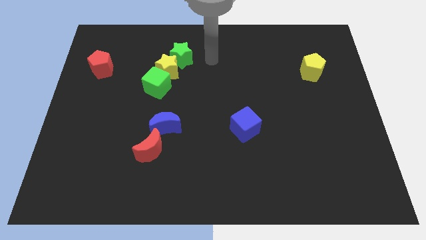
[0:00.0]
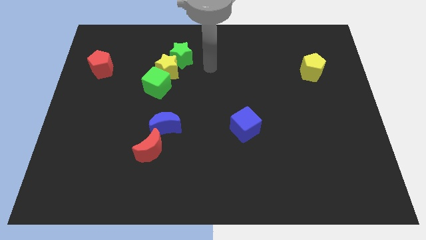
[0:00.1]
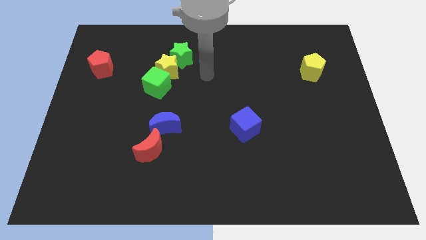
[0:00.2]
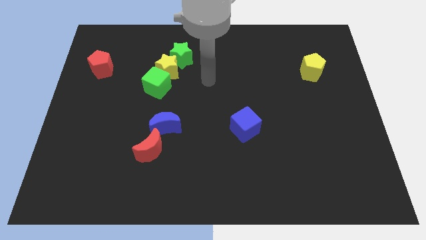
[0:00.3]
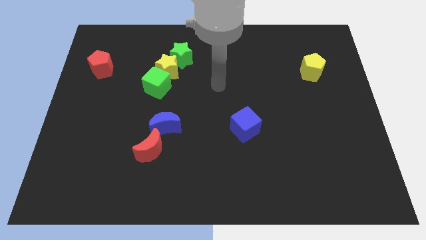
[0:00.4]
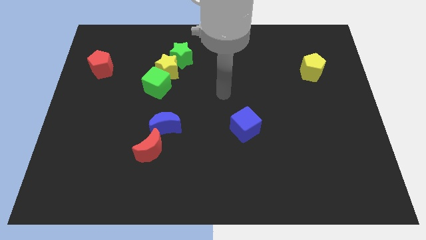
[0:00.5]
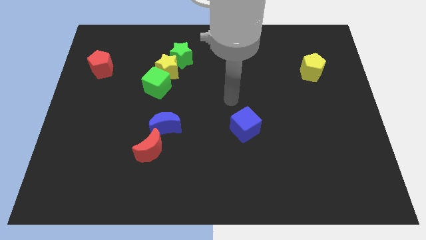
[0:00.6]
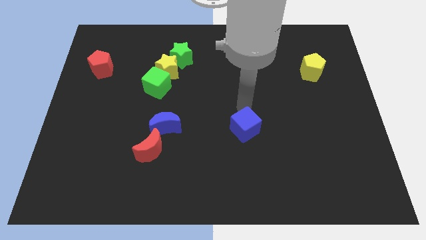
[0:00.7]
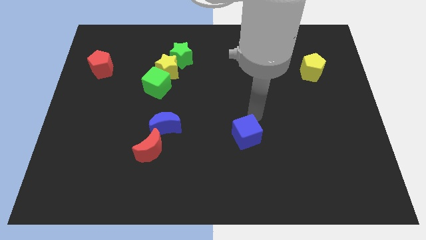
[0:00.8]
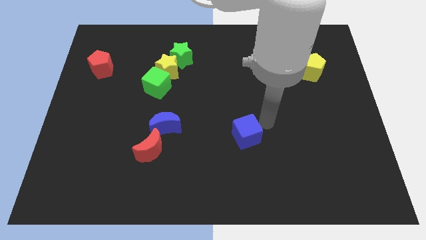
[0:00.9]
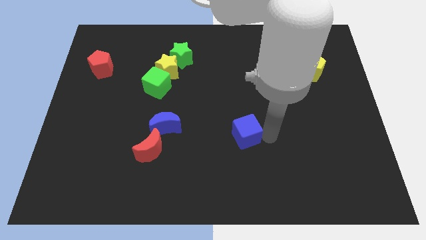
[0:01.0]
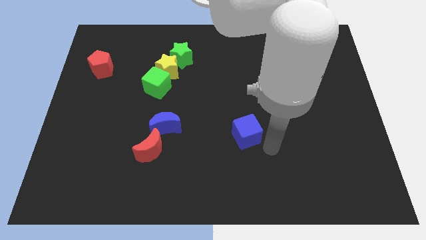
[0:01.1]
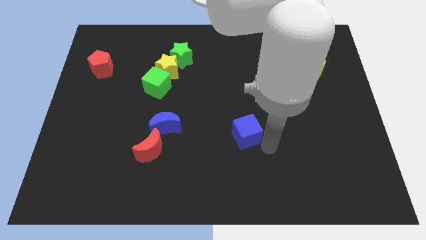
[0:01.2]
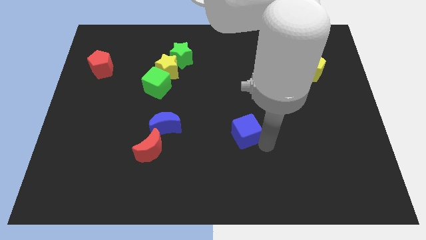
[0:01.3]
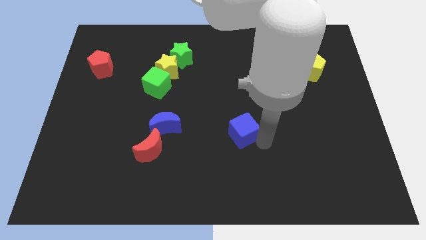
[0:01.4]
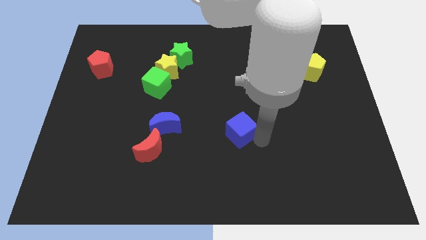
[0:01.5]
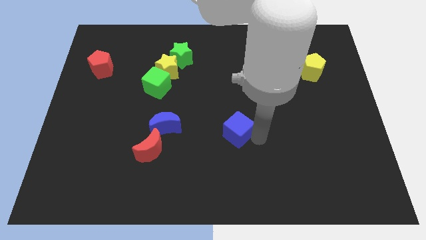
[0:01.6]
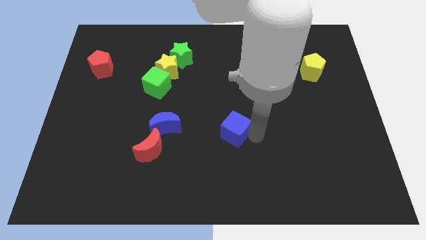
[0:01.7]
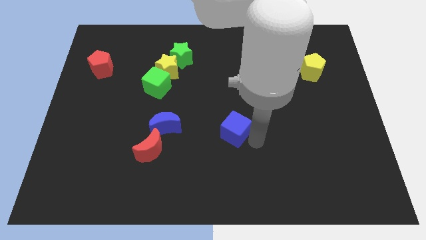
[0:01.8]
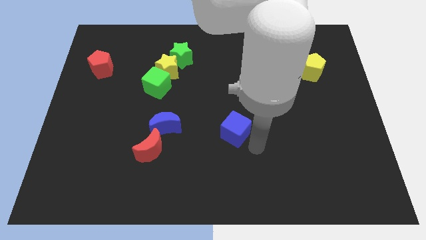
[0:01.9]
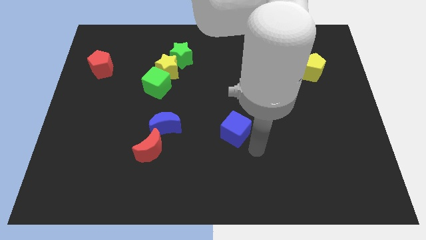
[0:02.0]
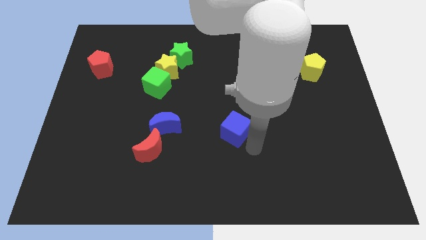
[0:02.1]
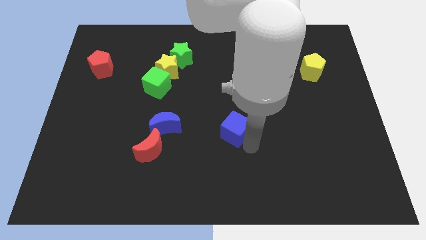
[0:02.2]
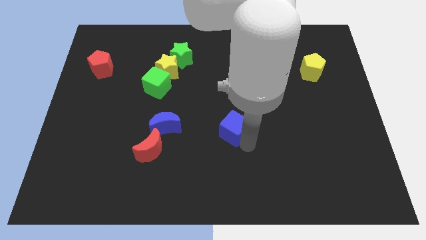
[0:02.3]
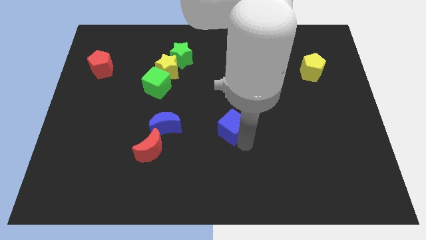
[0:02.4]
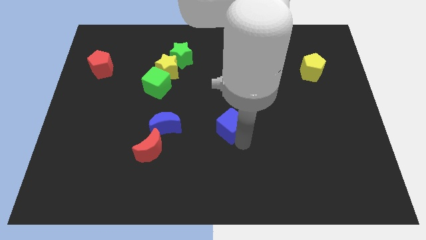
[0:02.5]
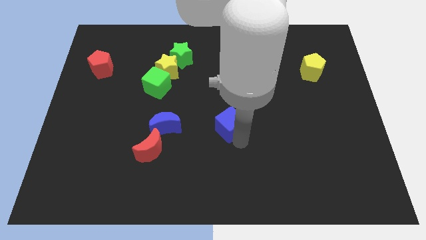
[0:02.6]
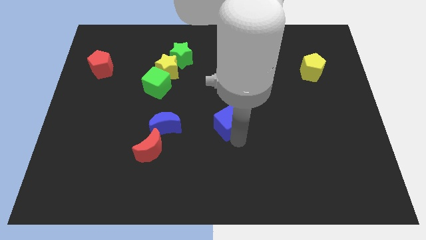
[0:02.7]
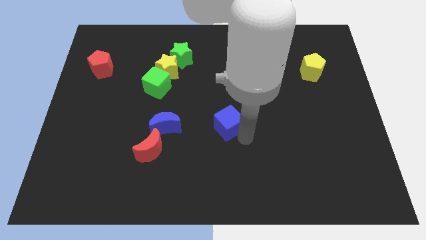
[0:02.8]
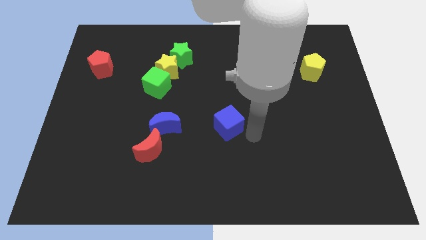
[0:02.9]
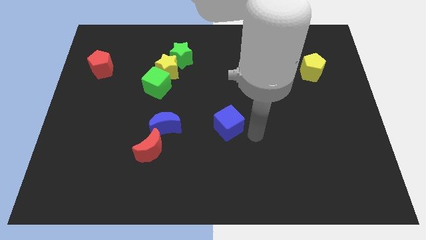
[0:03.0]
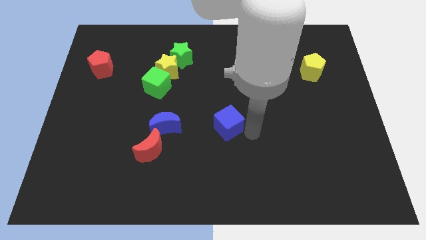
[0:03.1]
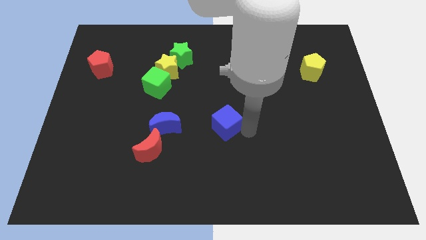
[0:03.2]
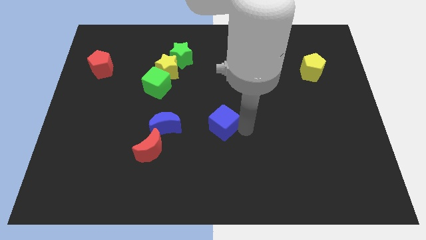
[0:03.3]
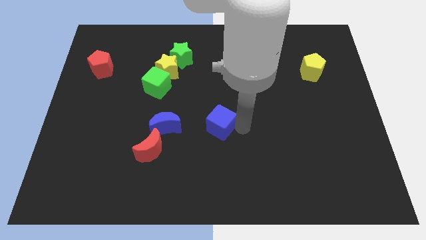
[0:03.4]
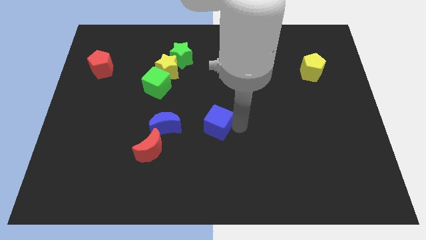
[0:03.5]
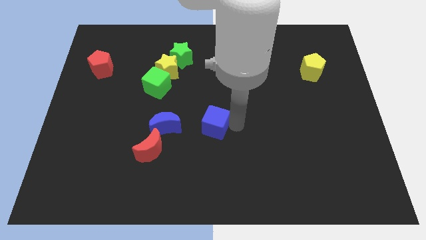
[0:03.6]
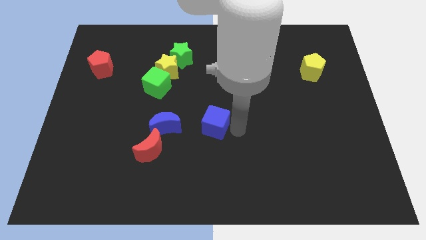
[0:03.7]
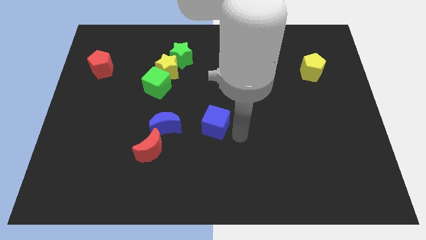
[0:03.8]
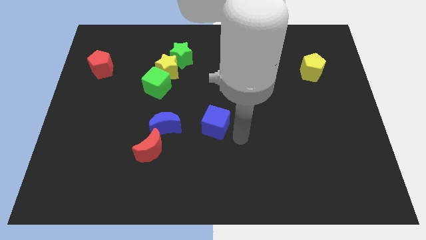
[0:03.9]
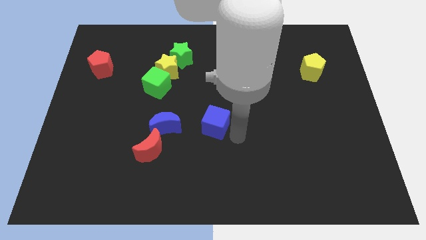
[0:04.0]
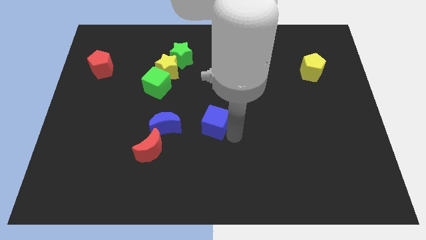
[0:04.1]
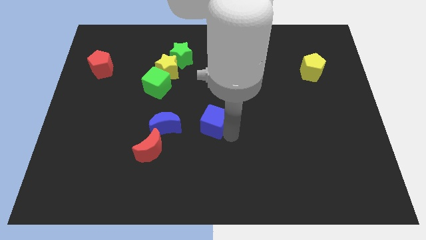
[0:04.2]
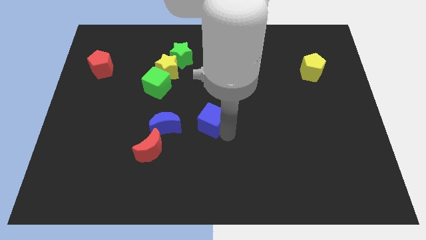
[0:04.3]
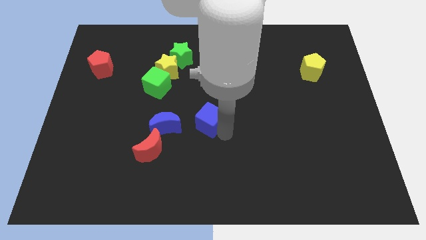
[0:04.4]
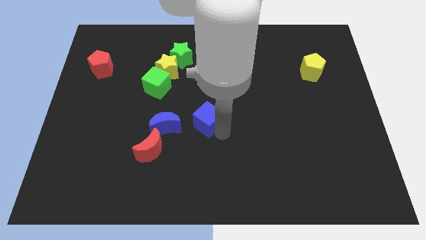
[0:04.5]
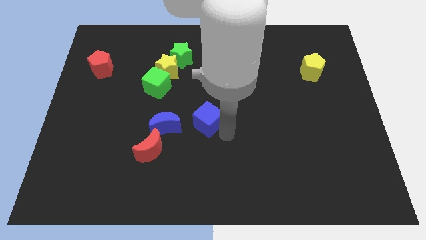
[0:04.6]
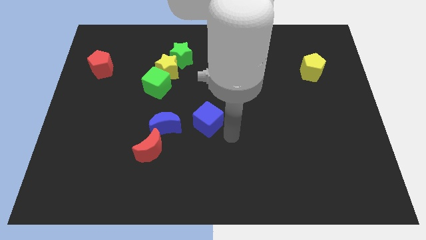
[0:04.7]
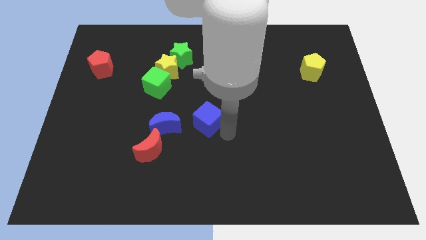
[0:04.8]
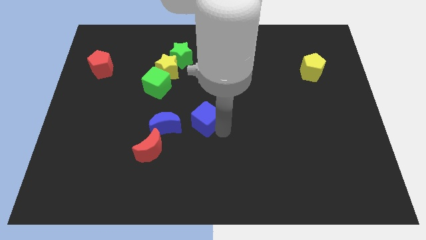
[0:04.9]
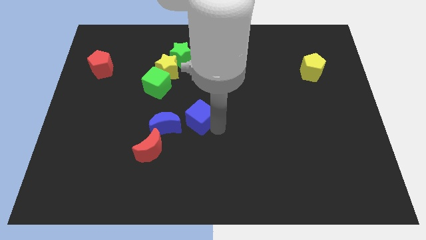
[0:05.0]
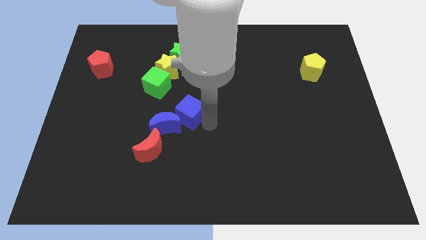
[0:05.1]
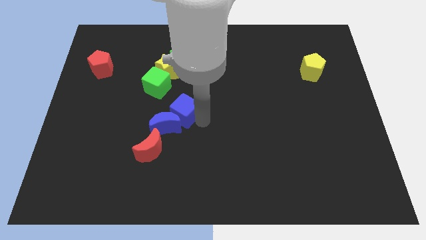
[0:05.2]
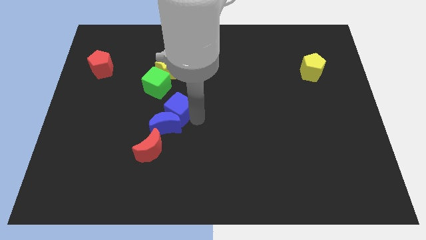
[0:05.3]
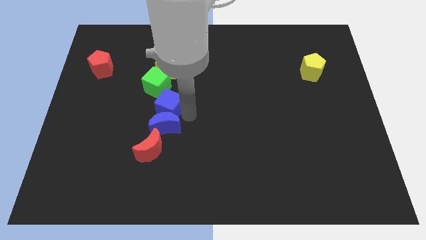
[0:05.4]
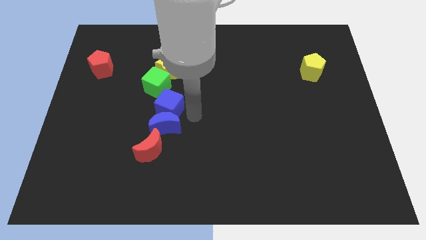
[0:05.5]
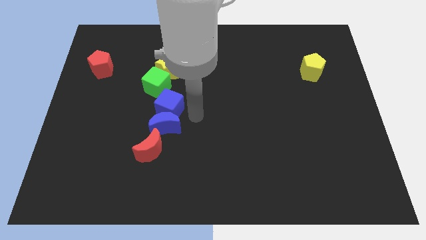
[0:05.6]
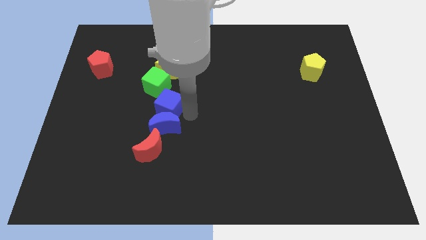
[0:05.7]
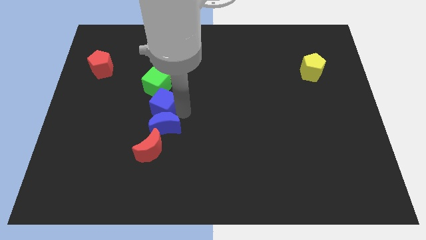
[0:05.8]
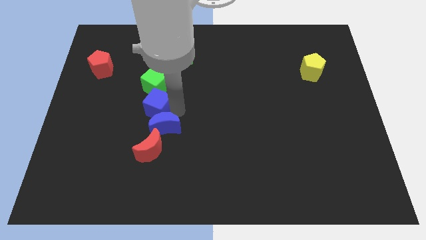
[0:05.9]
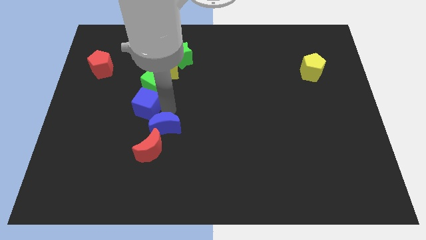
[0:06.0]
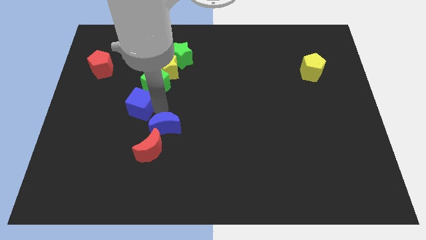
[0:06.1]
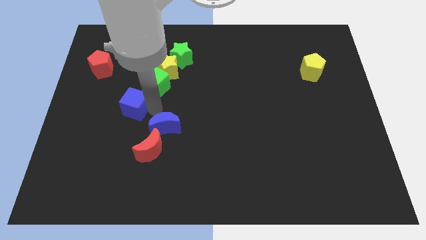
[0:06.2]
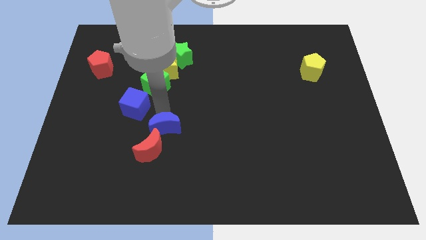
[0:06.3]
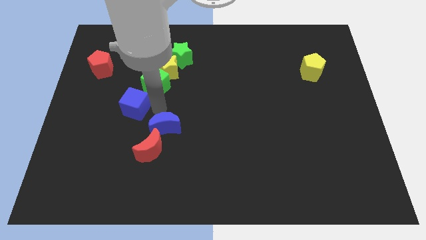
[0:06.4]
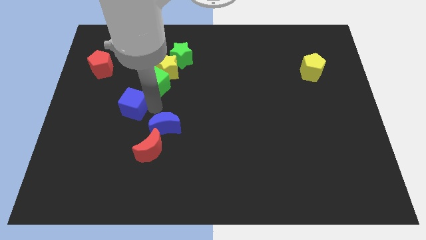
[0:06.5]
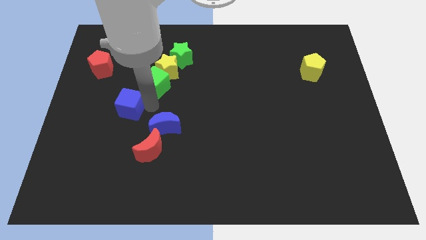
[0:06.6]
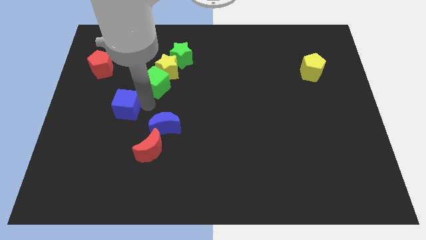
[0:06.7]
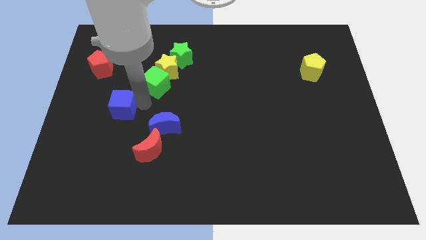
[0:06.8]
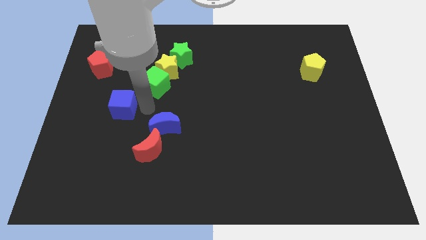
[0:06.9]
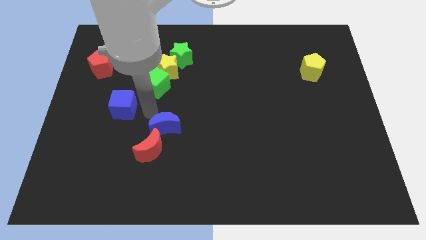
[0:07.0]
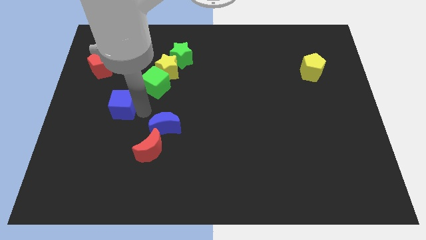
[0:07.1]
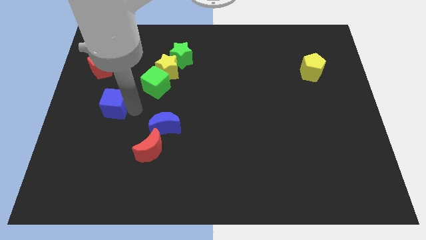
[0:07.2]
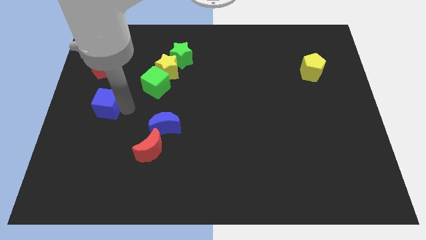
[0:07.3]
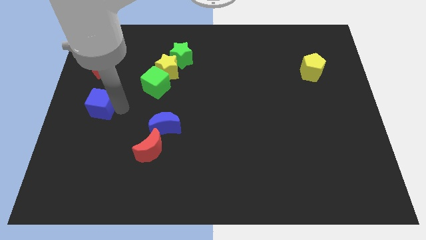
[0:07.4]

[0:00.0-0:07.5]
push the blue cube to the left side
